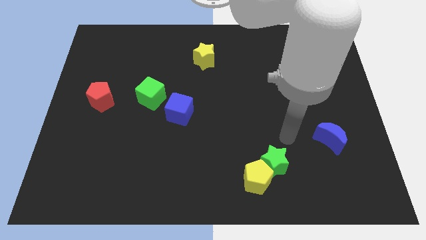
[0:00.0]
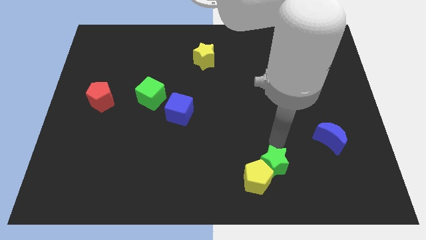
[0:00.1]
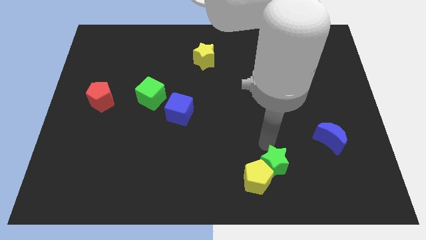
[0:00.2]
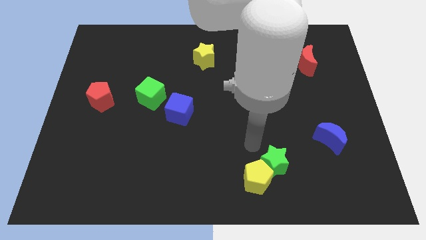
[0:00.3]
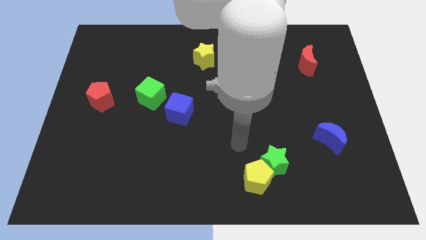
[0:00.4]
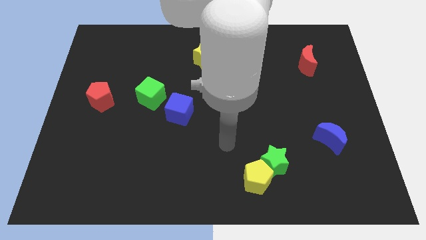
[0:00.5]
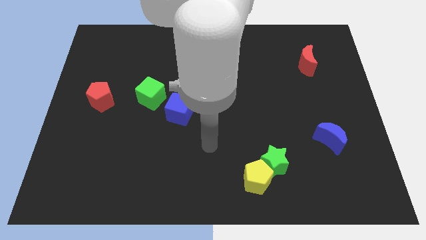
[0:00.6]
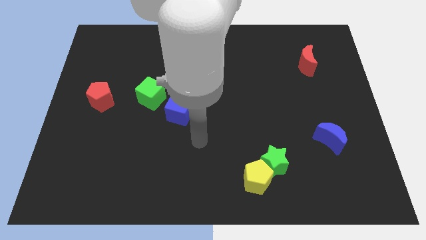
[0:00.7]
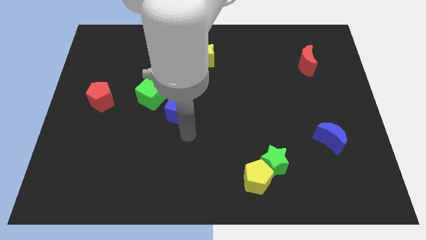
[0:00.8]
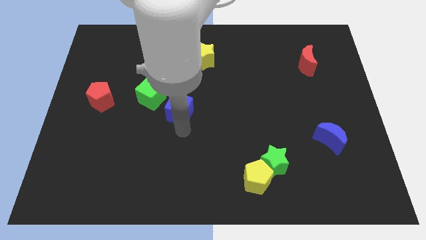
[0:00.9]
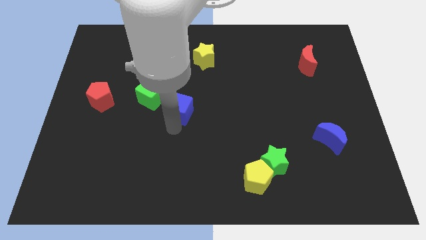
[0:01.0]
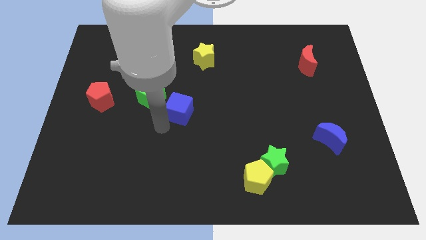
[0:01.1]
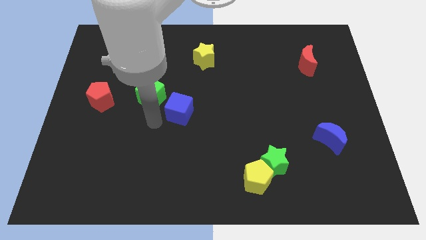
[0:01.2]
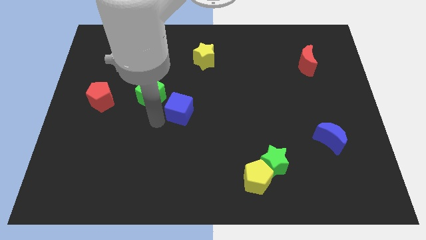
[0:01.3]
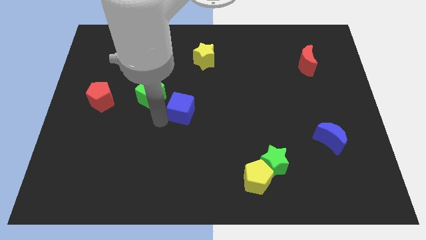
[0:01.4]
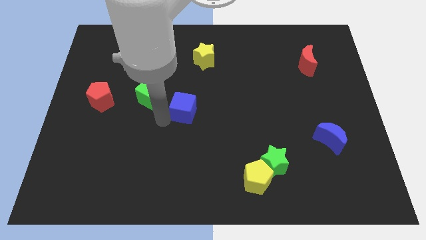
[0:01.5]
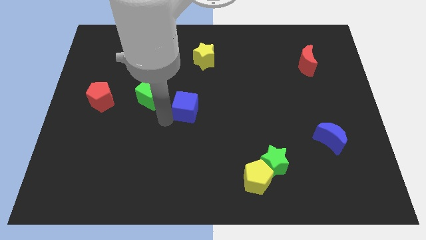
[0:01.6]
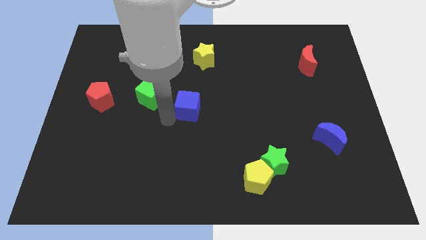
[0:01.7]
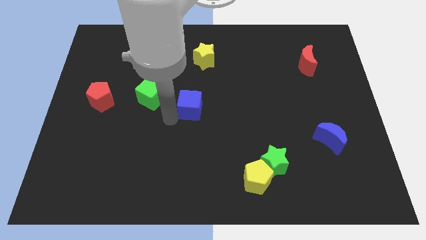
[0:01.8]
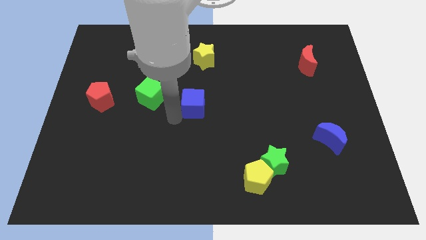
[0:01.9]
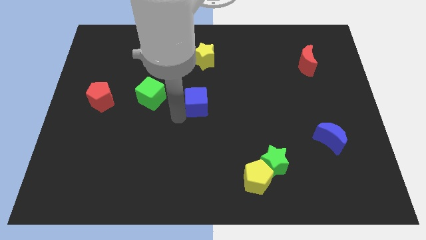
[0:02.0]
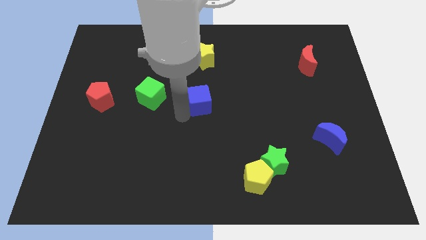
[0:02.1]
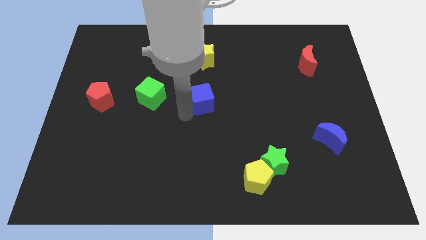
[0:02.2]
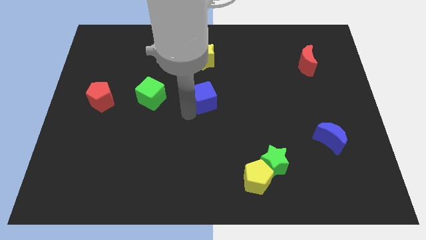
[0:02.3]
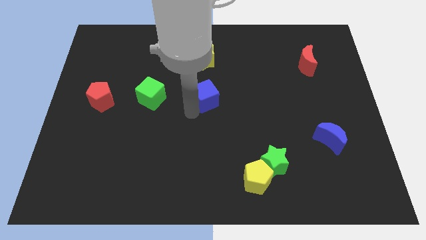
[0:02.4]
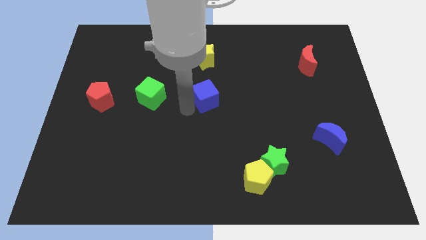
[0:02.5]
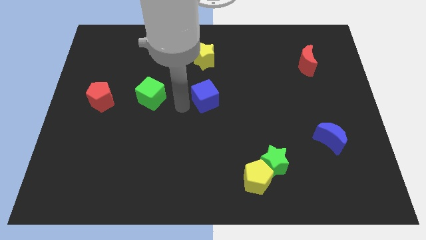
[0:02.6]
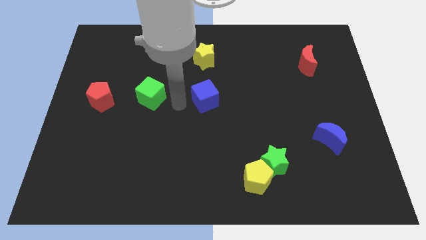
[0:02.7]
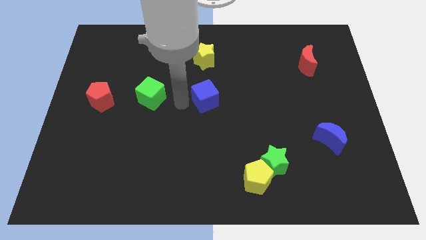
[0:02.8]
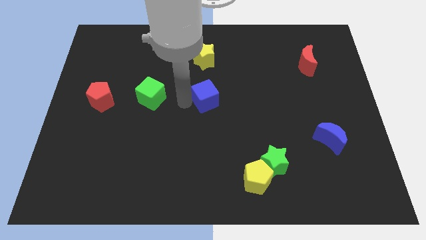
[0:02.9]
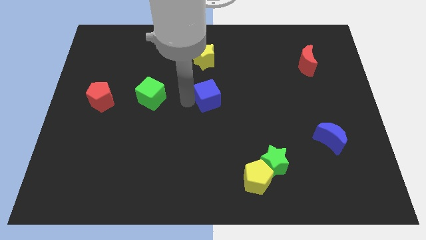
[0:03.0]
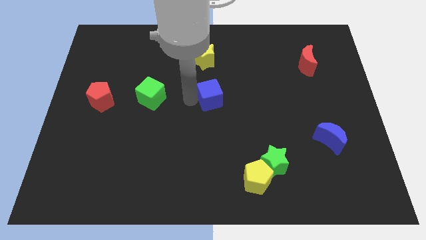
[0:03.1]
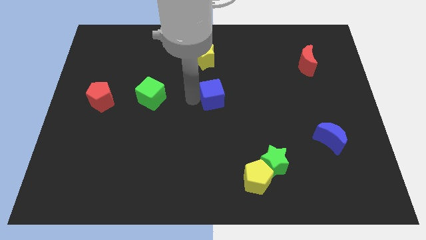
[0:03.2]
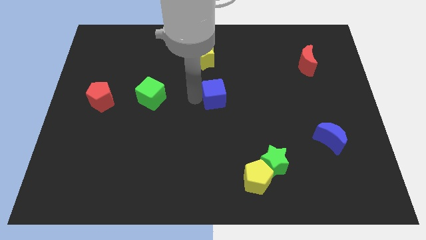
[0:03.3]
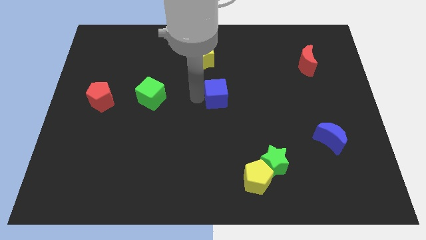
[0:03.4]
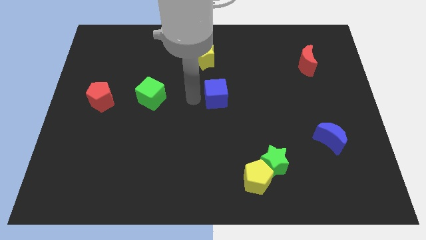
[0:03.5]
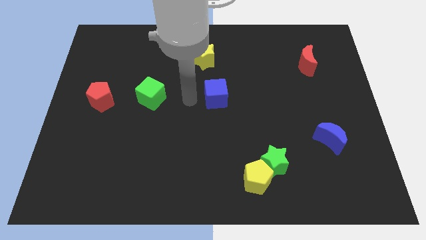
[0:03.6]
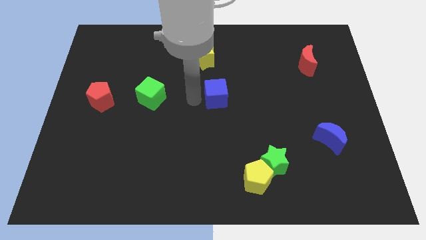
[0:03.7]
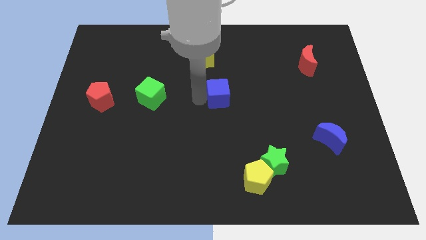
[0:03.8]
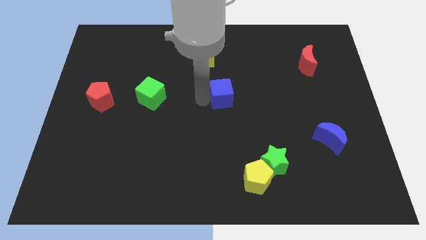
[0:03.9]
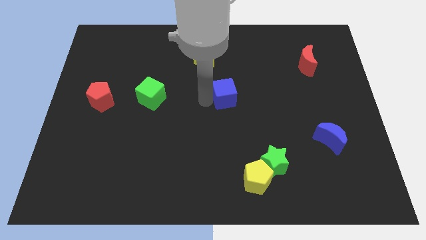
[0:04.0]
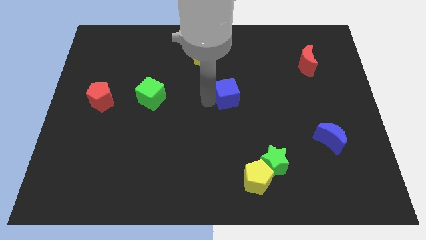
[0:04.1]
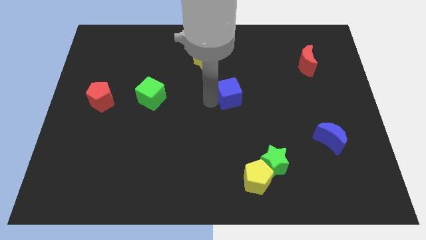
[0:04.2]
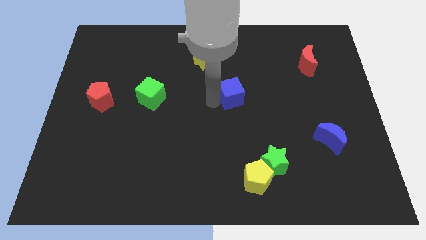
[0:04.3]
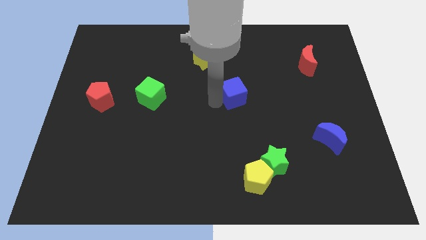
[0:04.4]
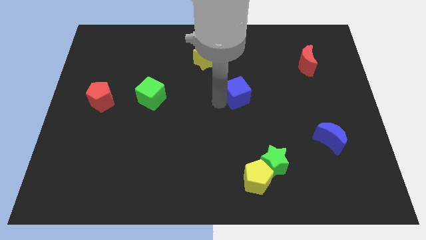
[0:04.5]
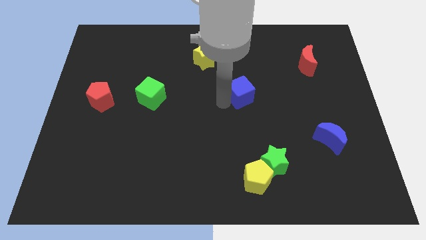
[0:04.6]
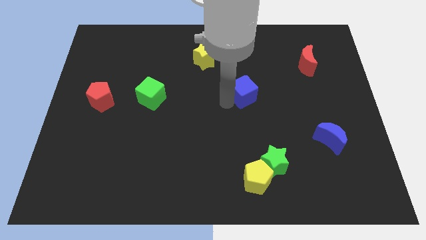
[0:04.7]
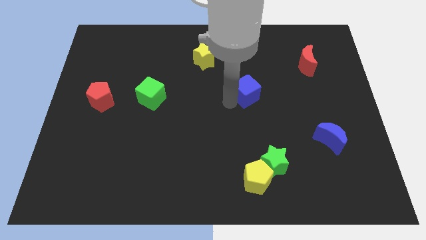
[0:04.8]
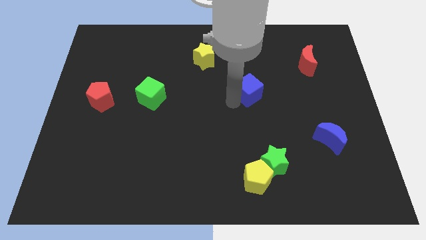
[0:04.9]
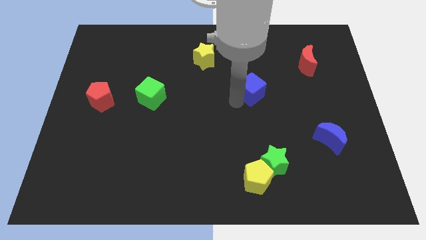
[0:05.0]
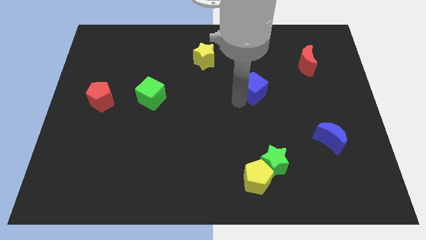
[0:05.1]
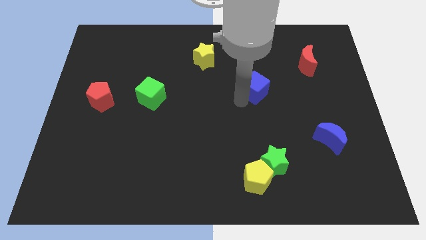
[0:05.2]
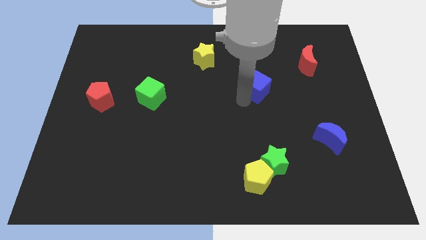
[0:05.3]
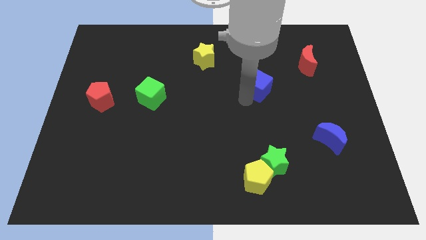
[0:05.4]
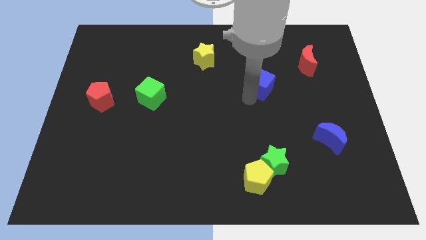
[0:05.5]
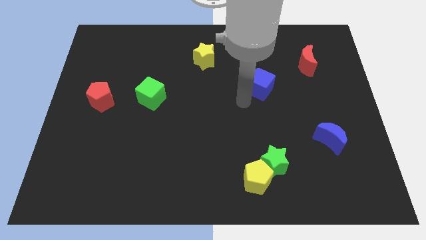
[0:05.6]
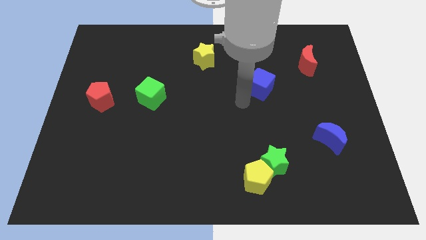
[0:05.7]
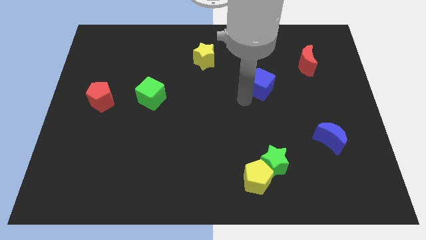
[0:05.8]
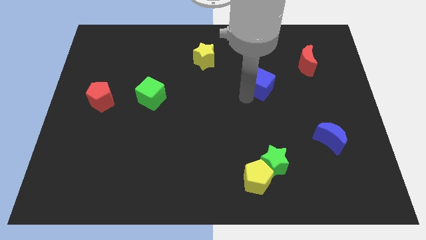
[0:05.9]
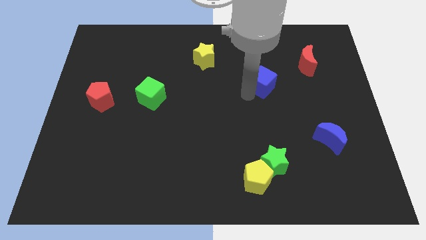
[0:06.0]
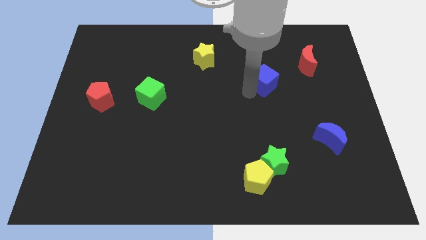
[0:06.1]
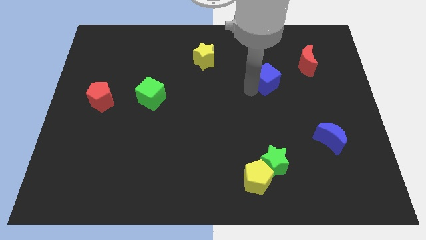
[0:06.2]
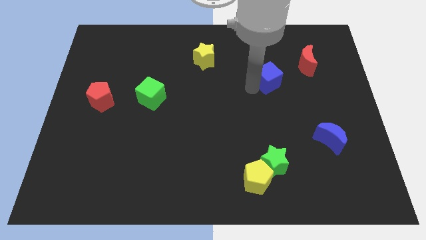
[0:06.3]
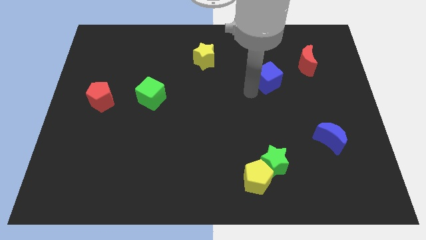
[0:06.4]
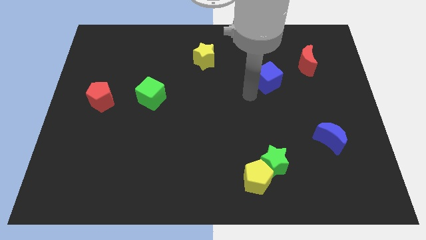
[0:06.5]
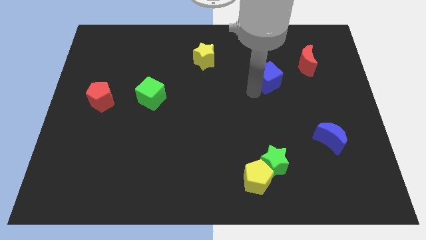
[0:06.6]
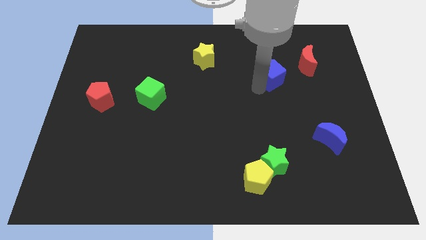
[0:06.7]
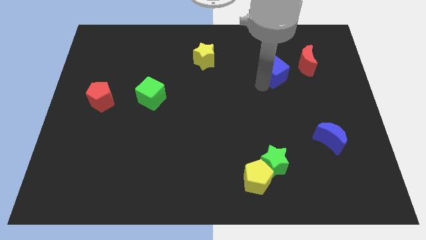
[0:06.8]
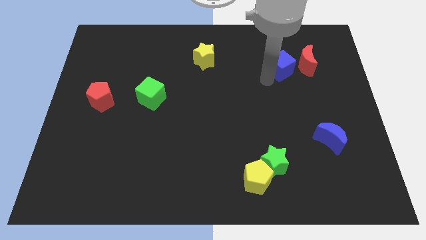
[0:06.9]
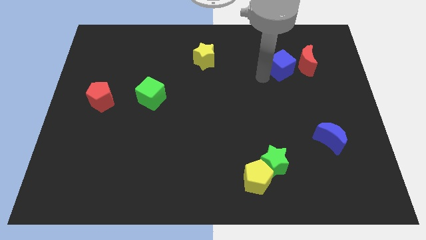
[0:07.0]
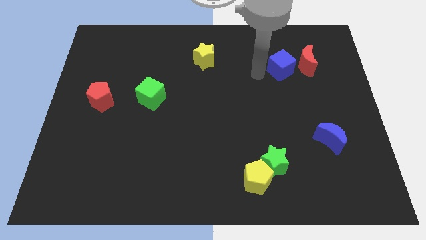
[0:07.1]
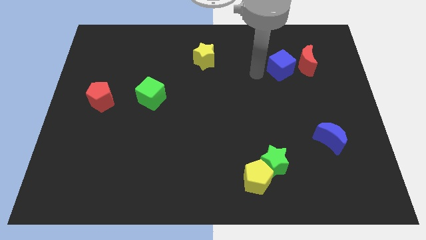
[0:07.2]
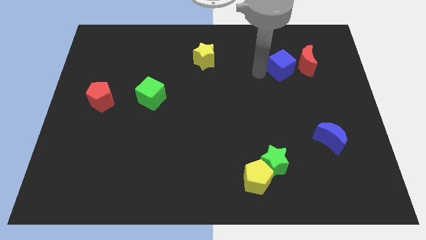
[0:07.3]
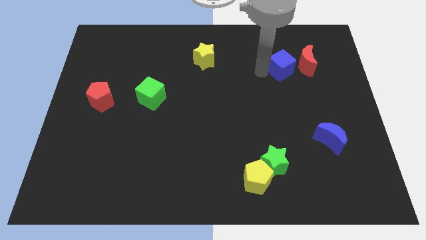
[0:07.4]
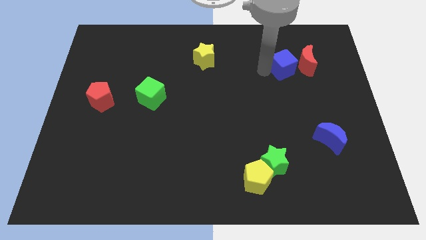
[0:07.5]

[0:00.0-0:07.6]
push the blue cube next to the red moon
